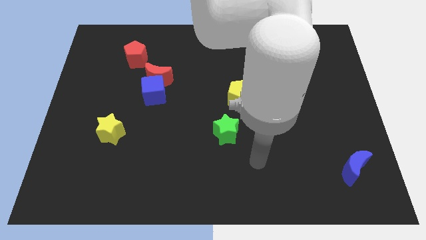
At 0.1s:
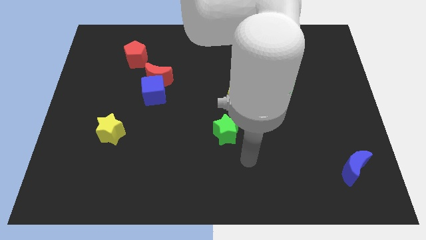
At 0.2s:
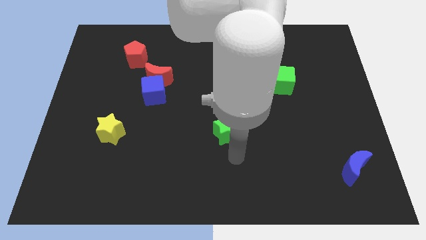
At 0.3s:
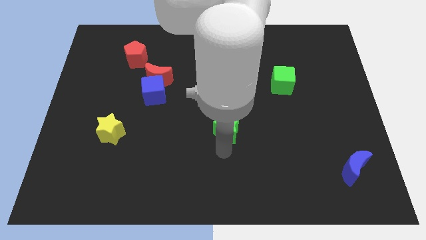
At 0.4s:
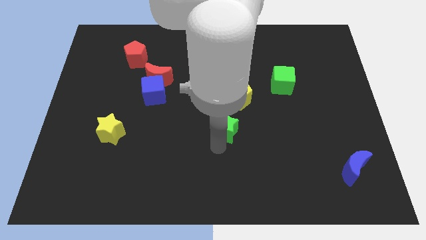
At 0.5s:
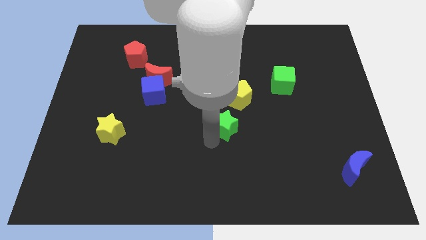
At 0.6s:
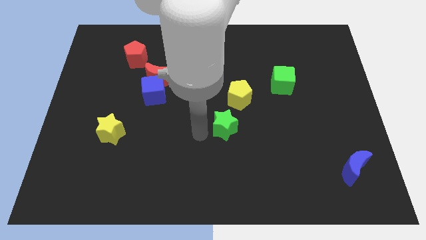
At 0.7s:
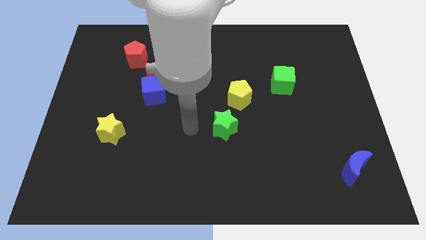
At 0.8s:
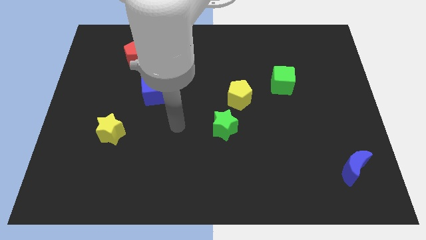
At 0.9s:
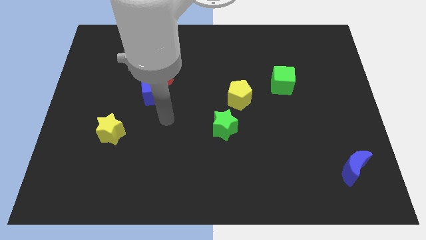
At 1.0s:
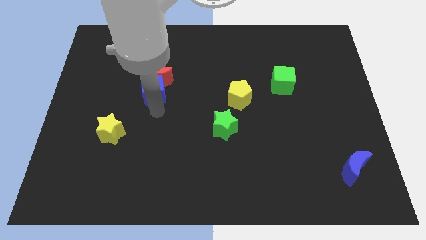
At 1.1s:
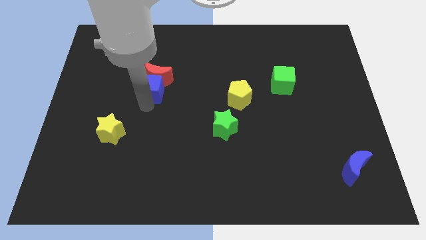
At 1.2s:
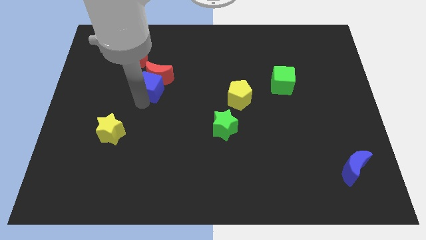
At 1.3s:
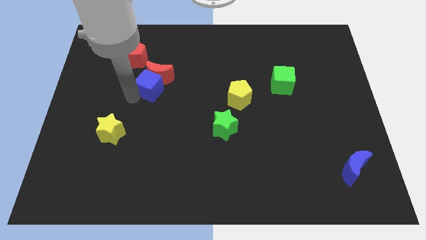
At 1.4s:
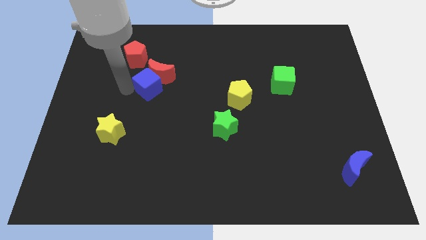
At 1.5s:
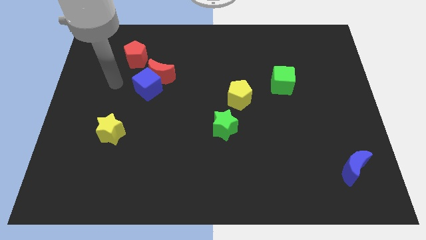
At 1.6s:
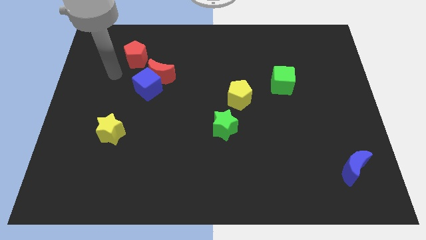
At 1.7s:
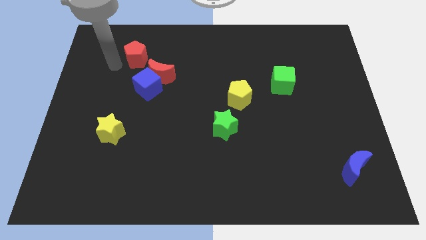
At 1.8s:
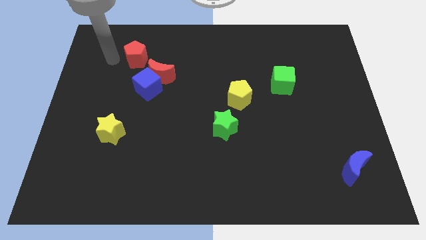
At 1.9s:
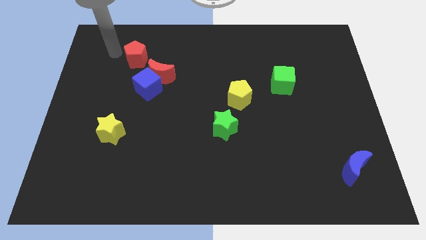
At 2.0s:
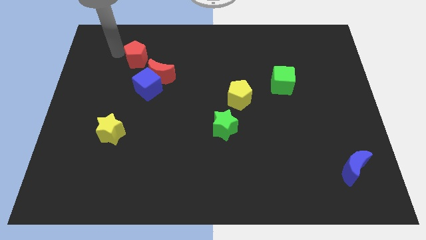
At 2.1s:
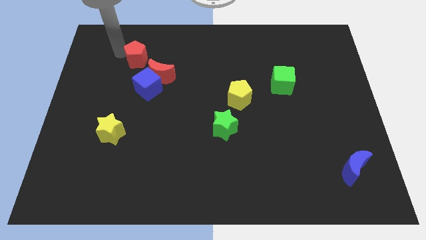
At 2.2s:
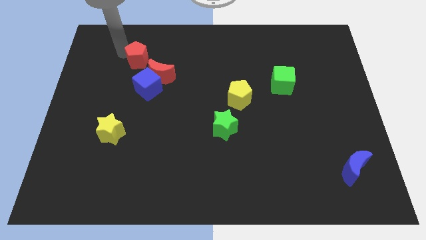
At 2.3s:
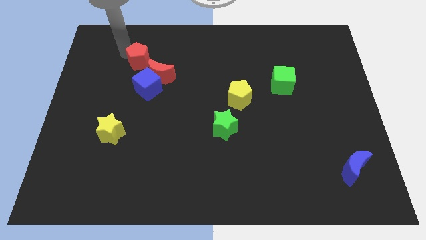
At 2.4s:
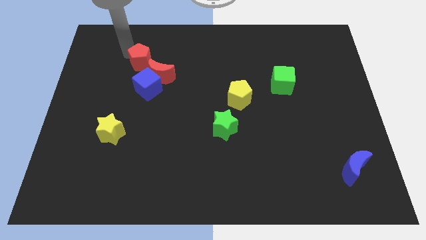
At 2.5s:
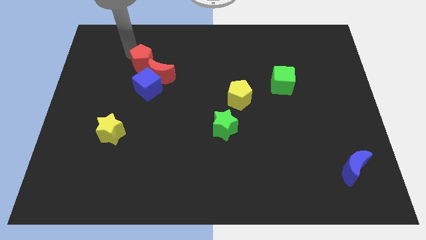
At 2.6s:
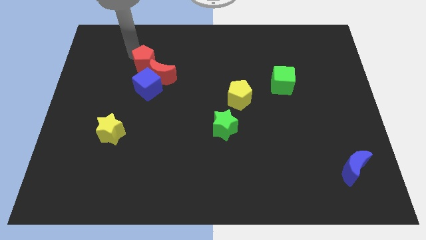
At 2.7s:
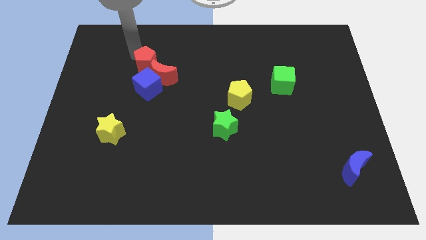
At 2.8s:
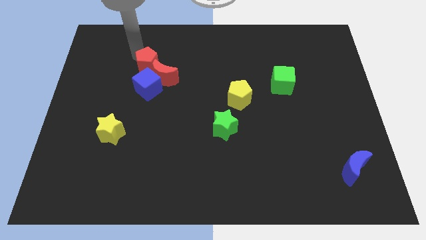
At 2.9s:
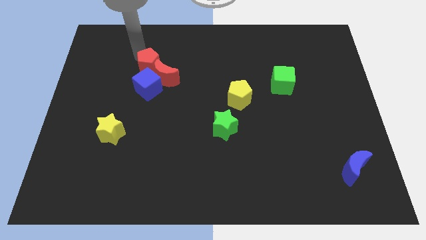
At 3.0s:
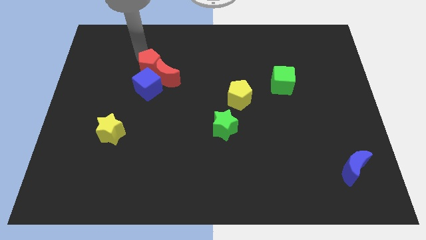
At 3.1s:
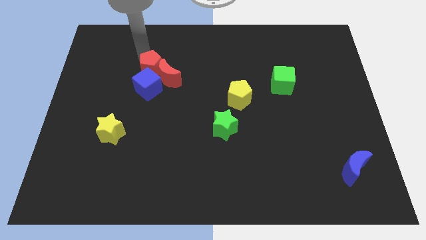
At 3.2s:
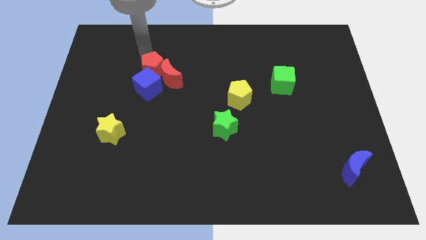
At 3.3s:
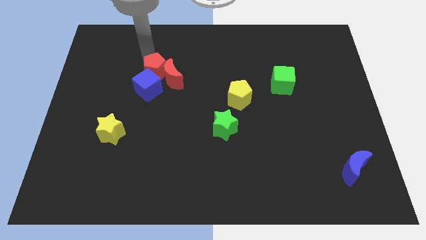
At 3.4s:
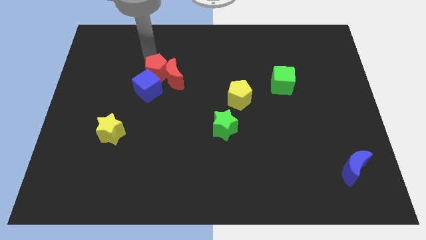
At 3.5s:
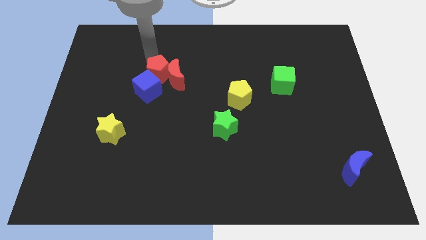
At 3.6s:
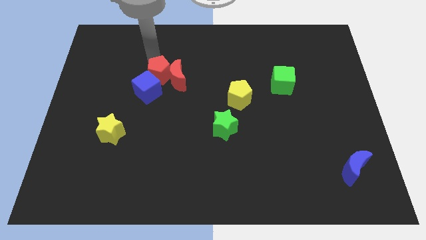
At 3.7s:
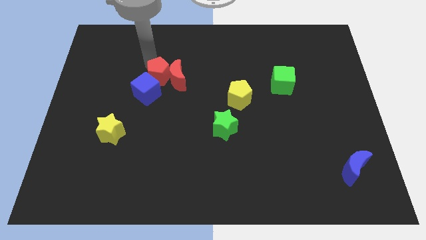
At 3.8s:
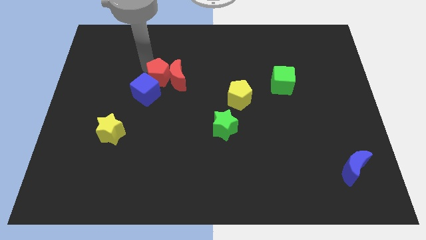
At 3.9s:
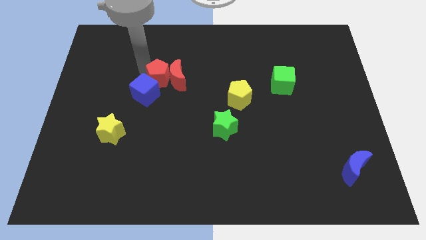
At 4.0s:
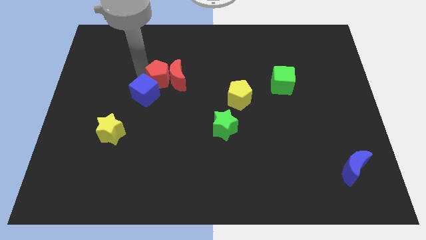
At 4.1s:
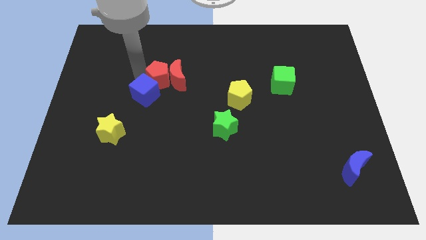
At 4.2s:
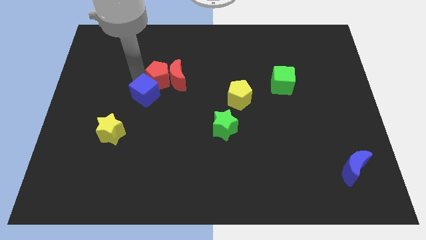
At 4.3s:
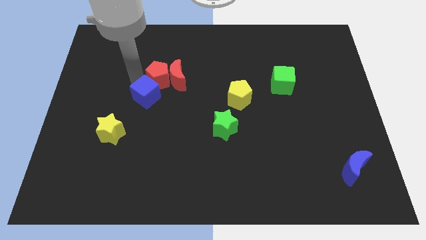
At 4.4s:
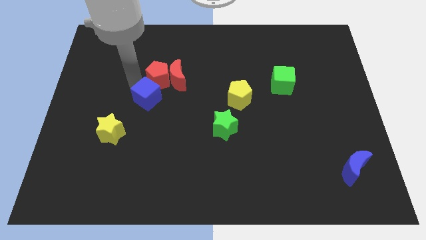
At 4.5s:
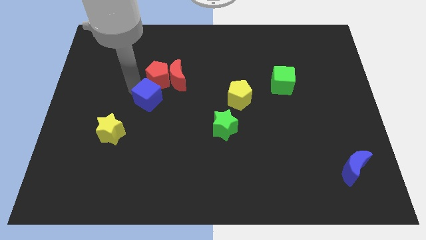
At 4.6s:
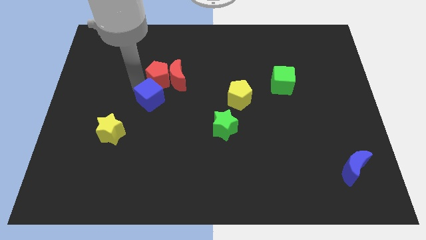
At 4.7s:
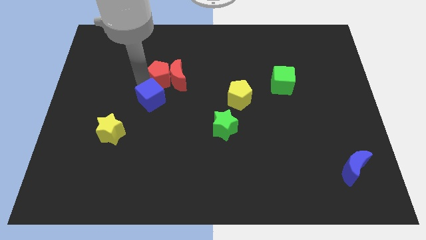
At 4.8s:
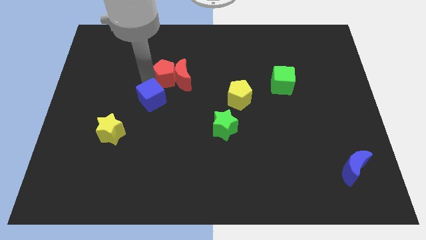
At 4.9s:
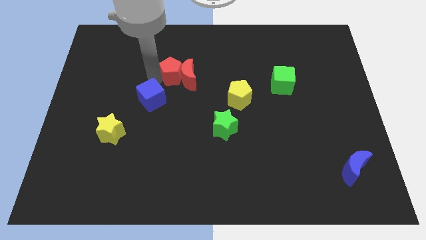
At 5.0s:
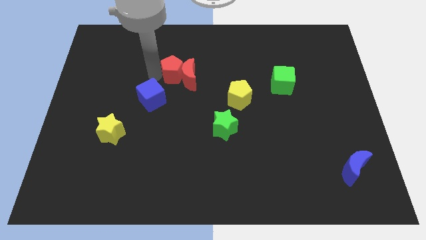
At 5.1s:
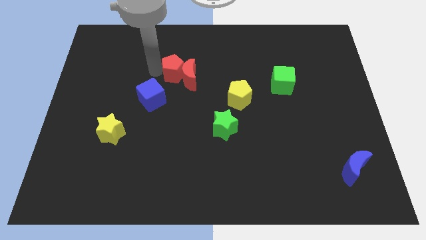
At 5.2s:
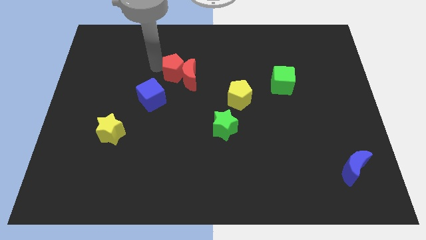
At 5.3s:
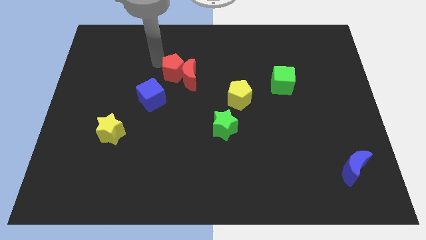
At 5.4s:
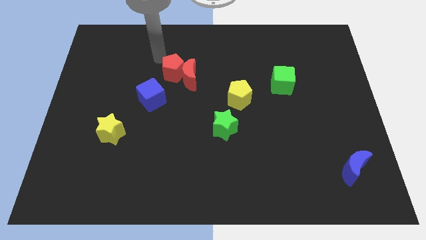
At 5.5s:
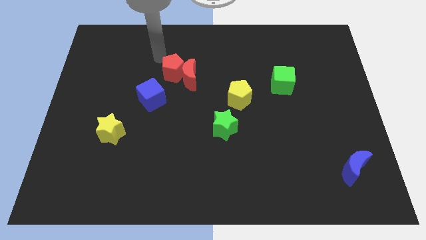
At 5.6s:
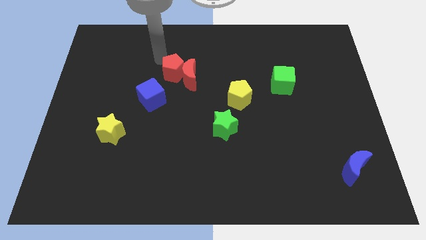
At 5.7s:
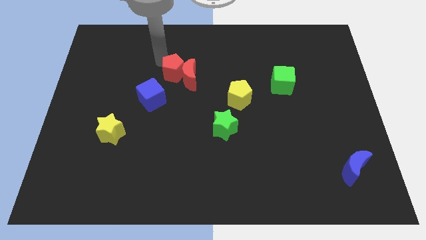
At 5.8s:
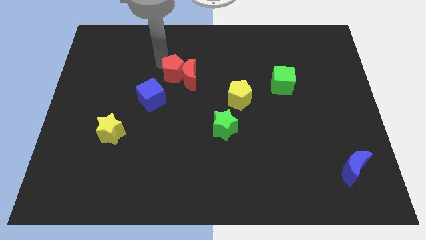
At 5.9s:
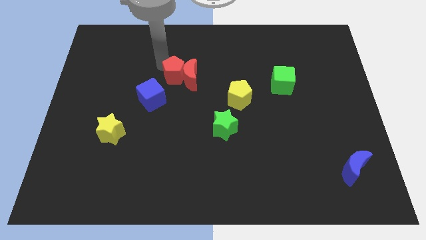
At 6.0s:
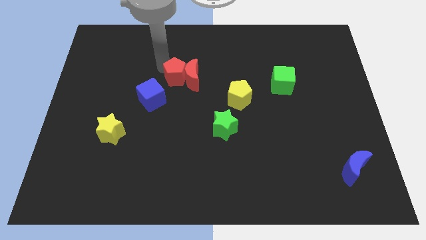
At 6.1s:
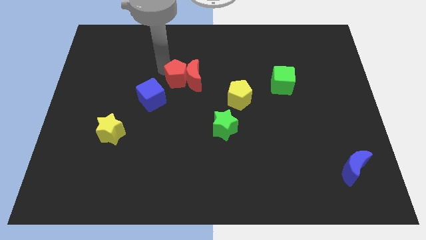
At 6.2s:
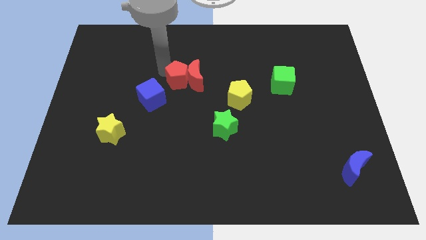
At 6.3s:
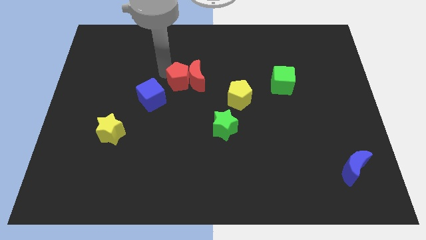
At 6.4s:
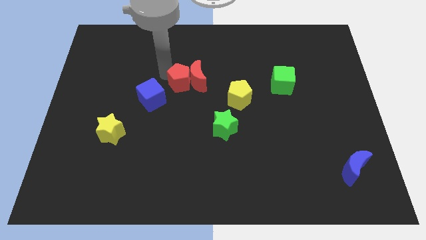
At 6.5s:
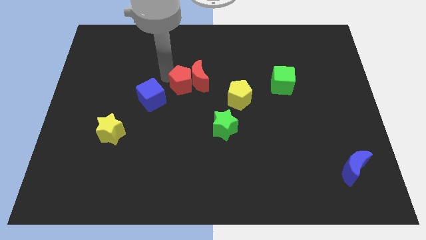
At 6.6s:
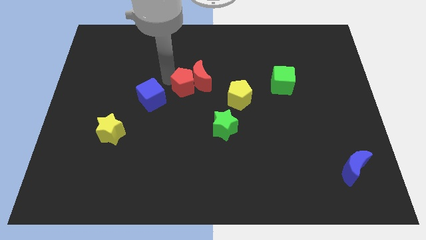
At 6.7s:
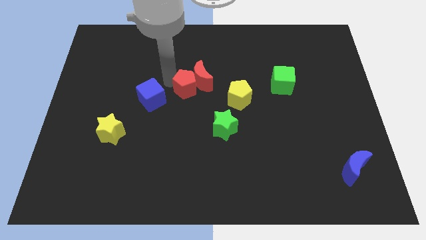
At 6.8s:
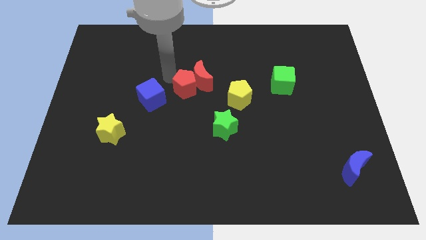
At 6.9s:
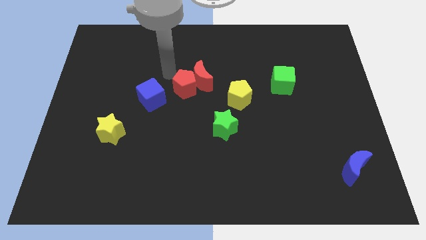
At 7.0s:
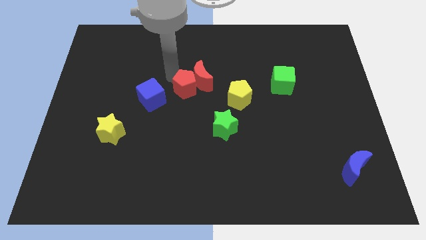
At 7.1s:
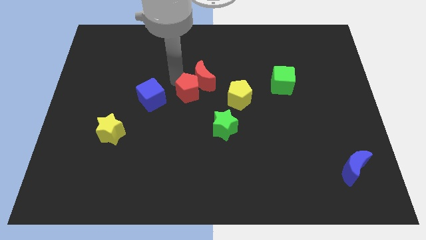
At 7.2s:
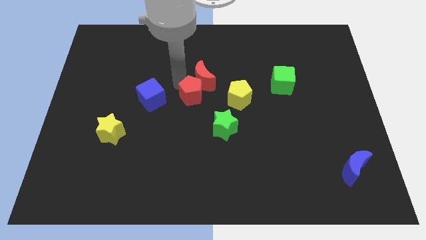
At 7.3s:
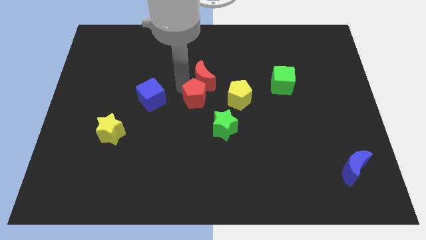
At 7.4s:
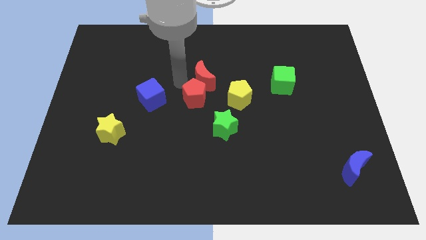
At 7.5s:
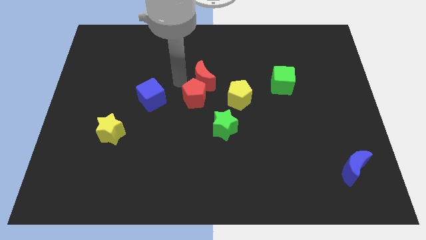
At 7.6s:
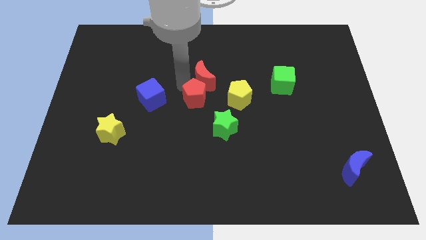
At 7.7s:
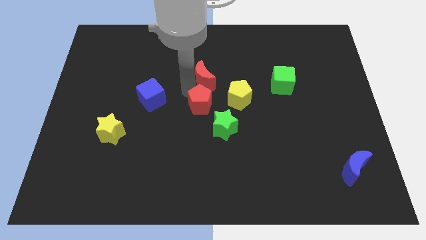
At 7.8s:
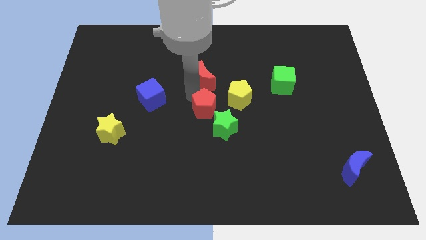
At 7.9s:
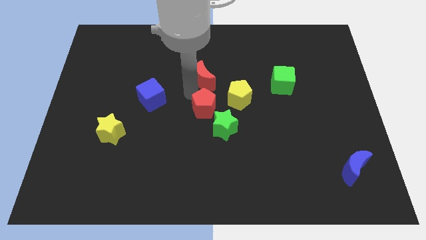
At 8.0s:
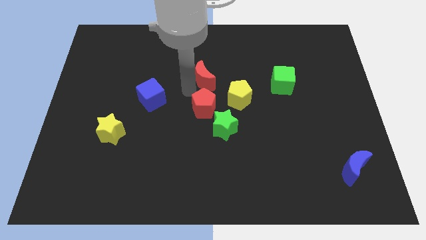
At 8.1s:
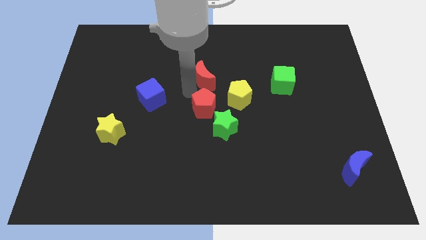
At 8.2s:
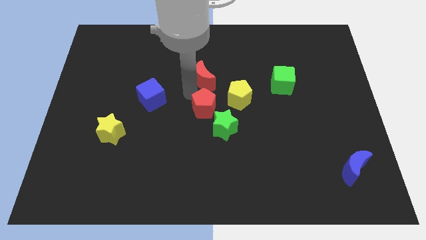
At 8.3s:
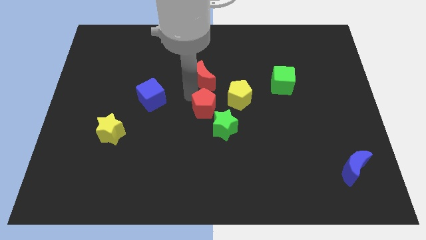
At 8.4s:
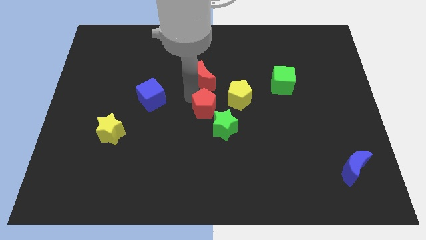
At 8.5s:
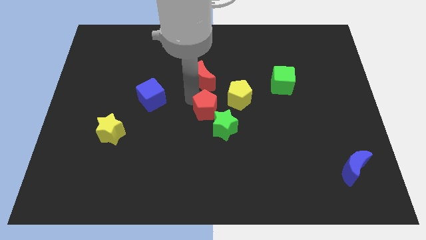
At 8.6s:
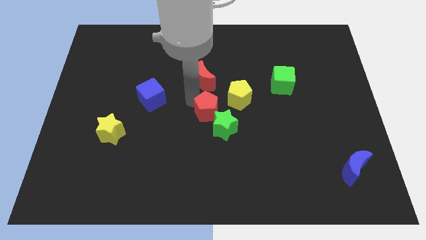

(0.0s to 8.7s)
slide the red pentagon next to the green star
